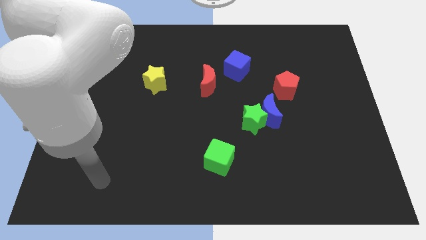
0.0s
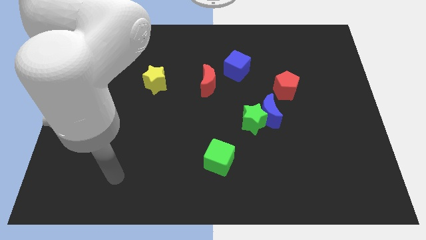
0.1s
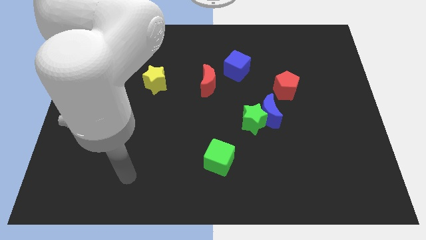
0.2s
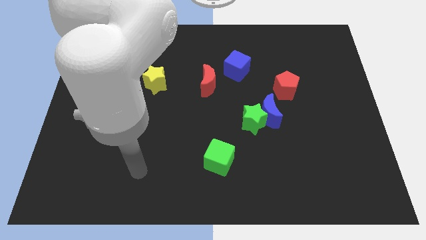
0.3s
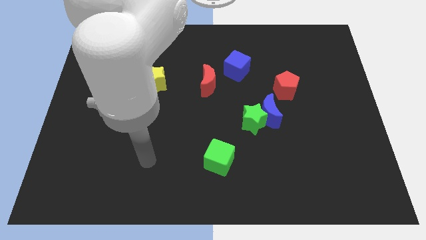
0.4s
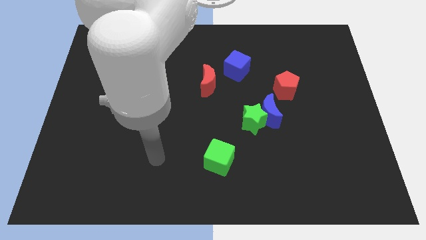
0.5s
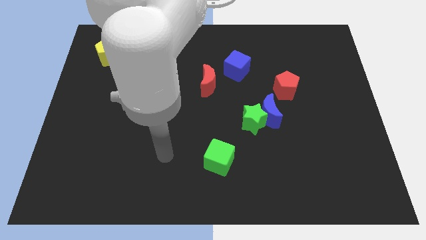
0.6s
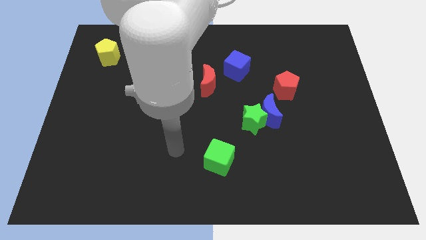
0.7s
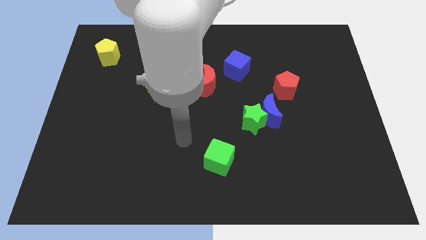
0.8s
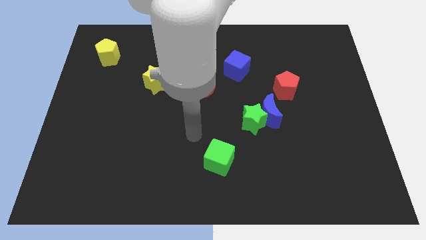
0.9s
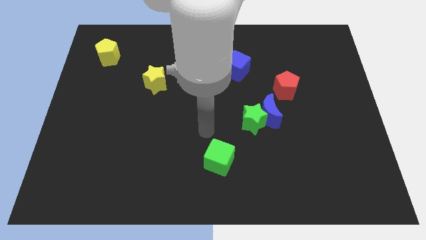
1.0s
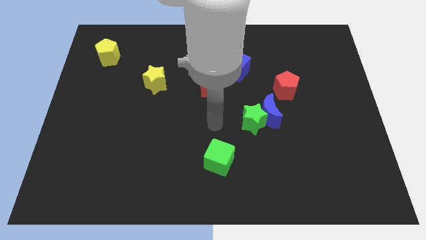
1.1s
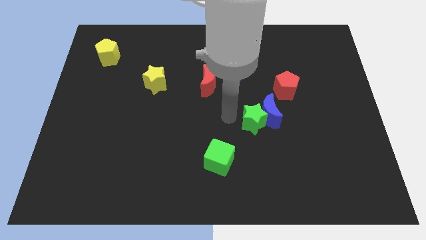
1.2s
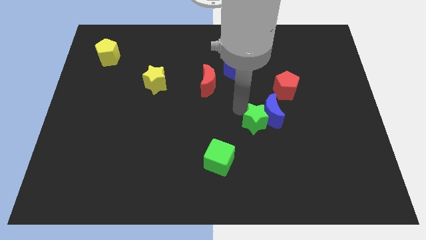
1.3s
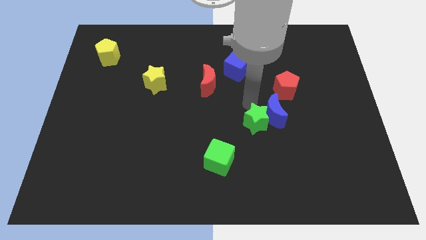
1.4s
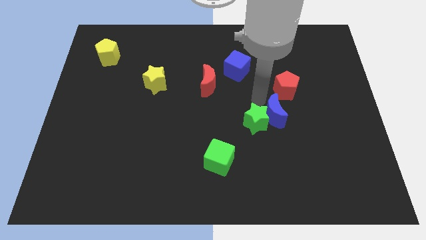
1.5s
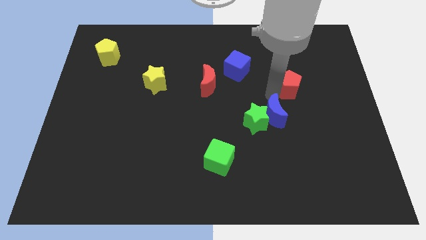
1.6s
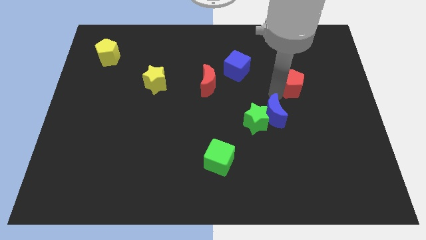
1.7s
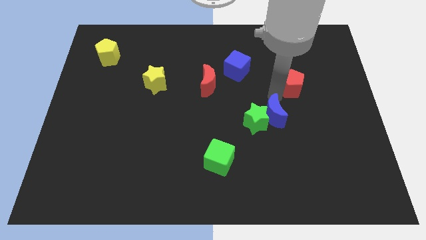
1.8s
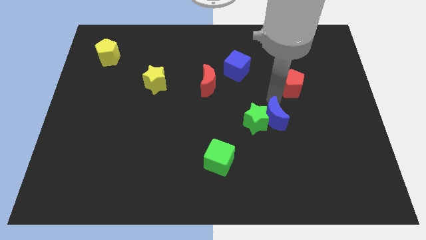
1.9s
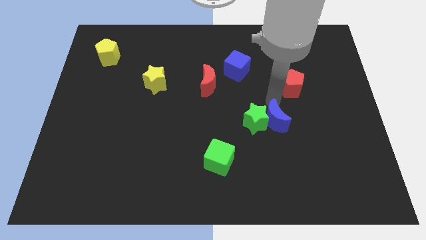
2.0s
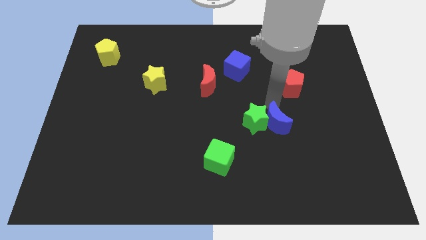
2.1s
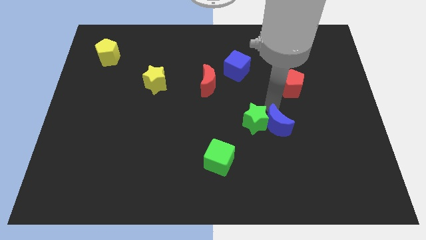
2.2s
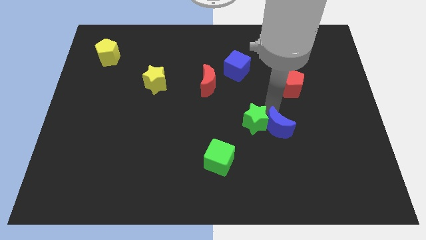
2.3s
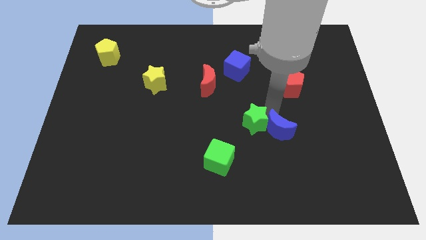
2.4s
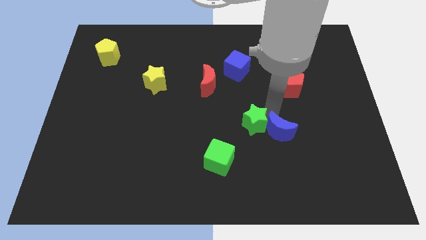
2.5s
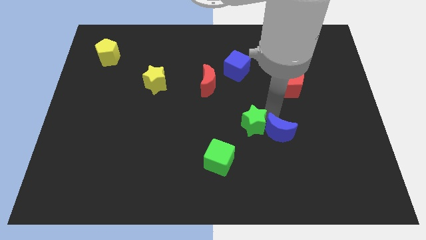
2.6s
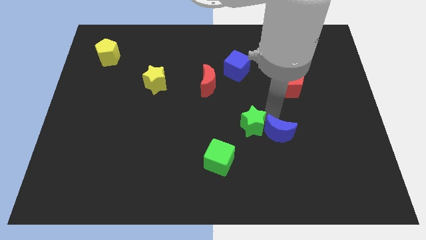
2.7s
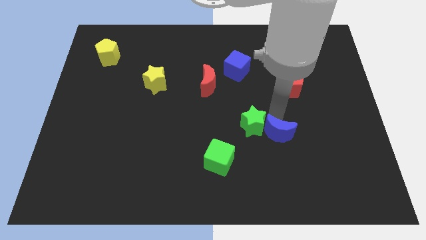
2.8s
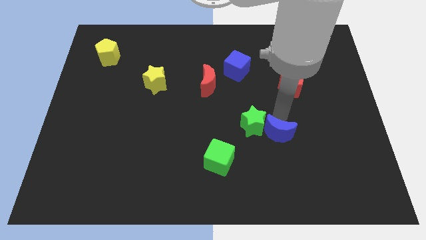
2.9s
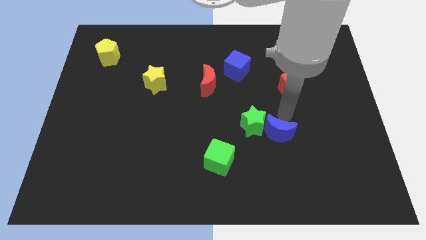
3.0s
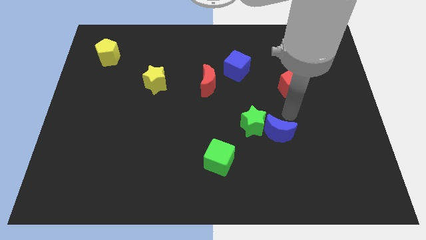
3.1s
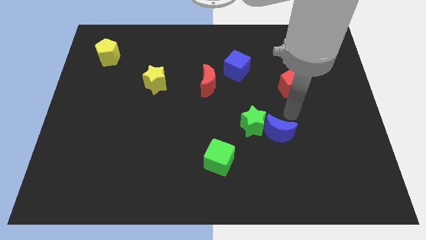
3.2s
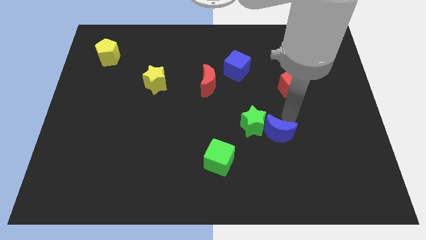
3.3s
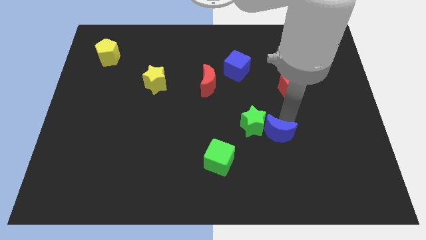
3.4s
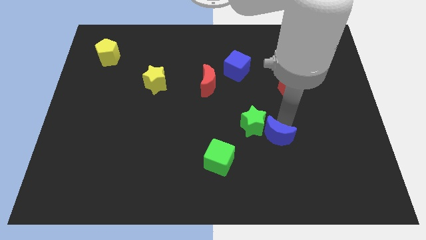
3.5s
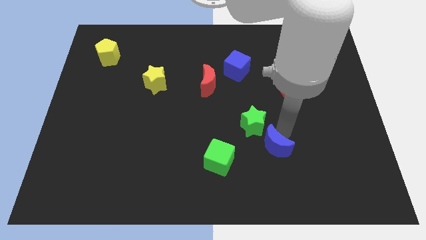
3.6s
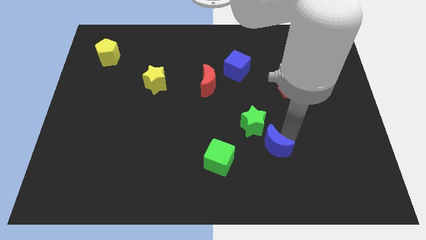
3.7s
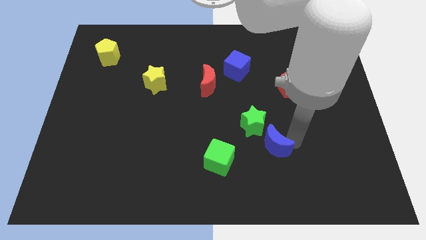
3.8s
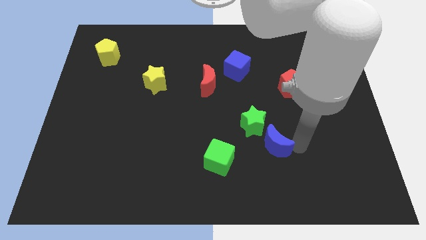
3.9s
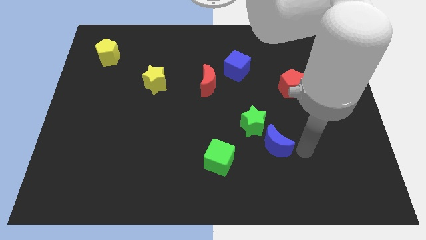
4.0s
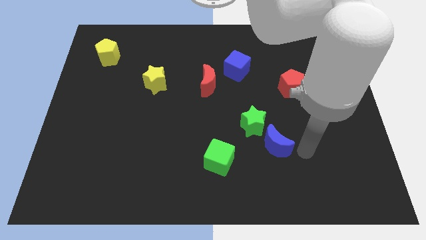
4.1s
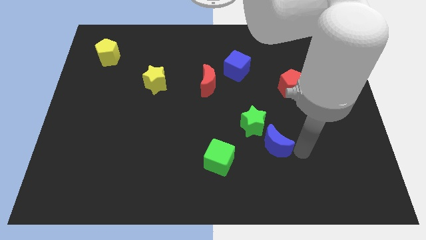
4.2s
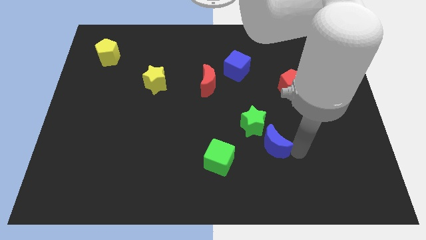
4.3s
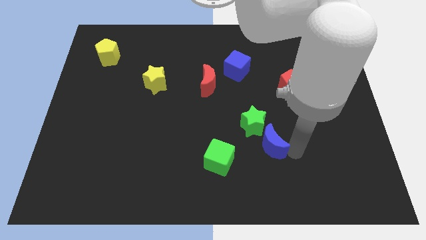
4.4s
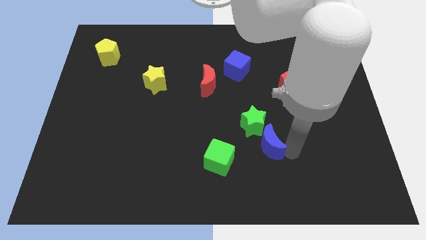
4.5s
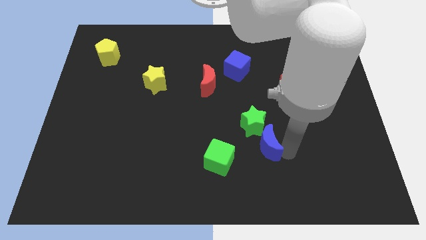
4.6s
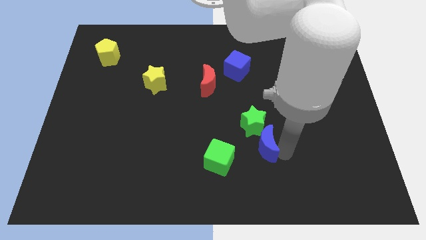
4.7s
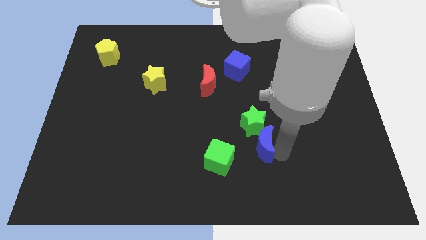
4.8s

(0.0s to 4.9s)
move the blue moon to the top right side of the green cube

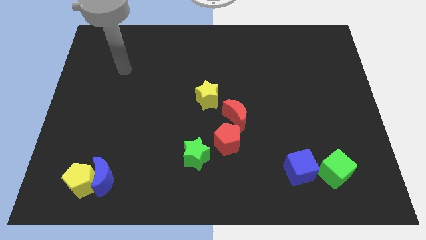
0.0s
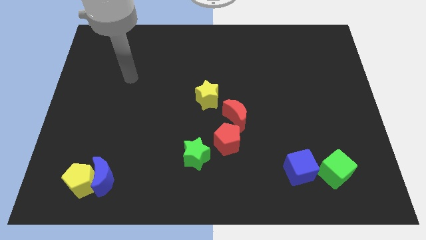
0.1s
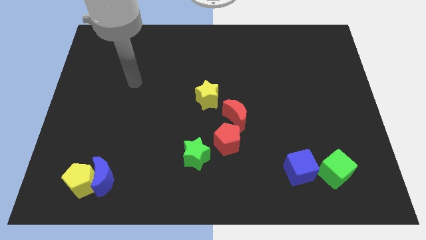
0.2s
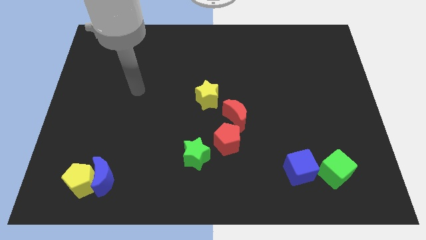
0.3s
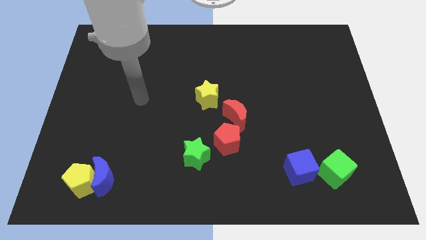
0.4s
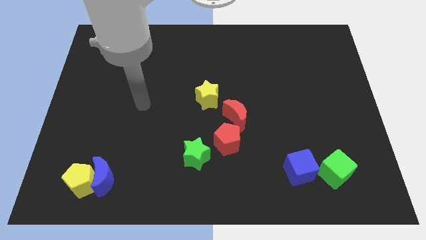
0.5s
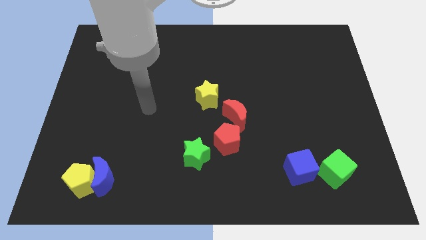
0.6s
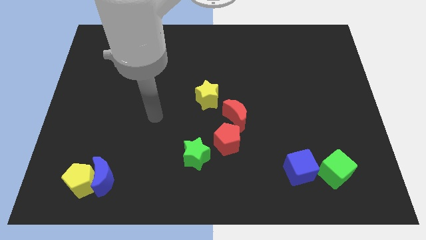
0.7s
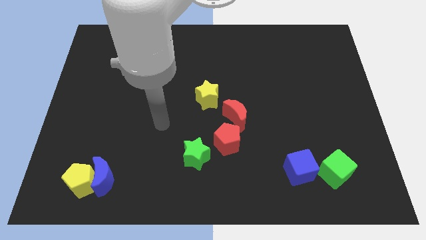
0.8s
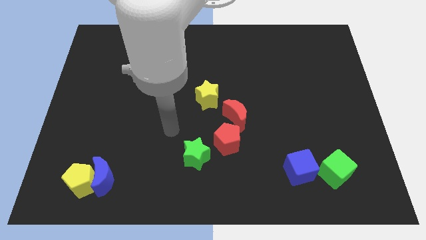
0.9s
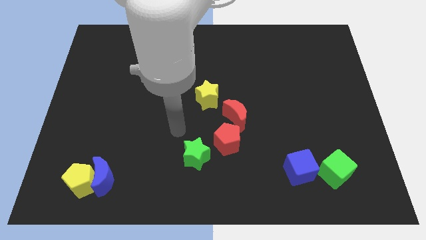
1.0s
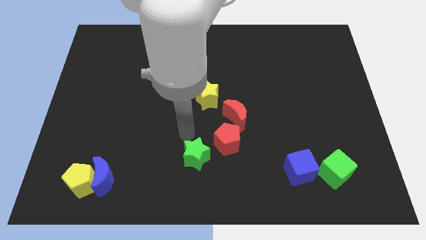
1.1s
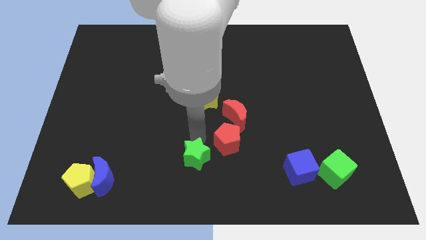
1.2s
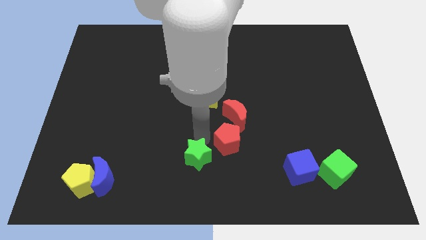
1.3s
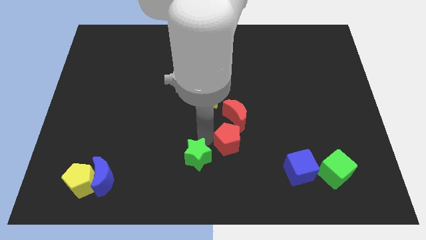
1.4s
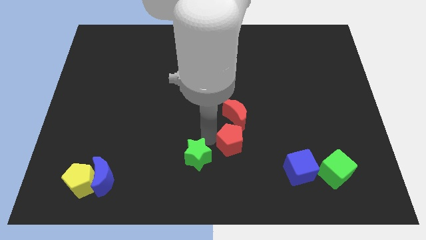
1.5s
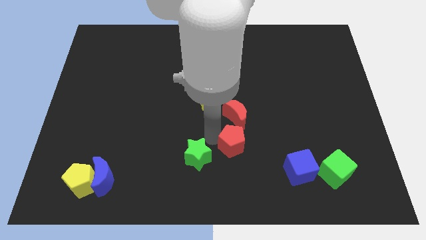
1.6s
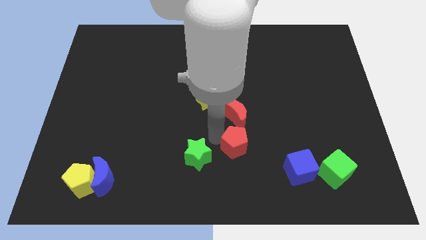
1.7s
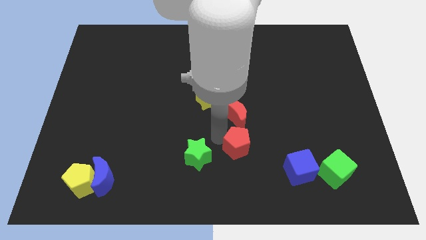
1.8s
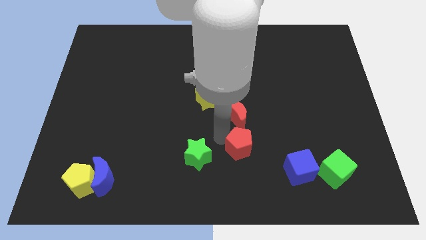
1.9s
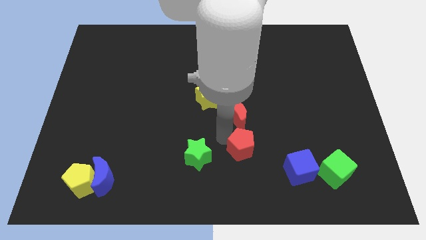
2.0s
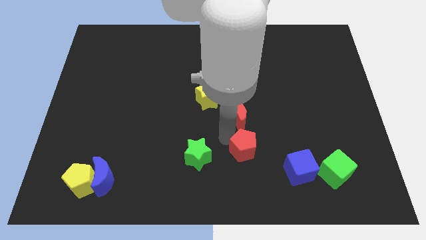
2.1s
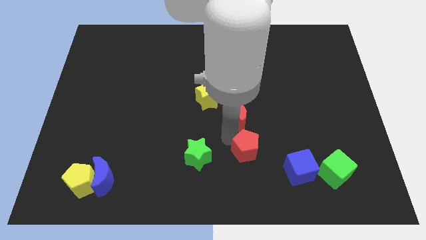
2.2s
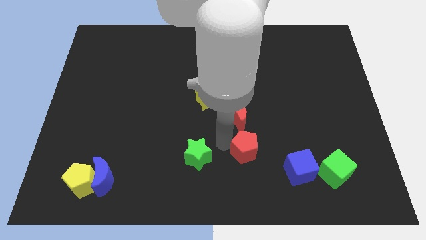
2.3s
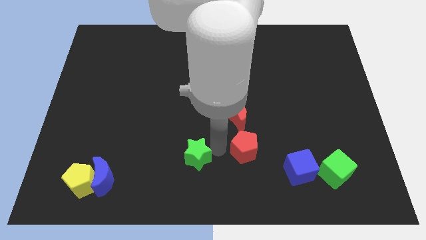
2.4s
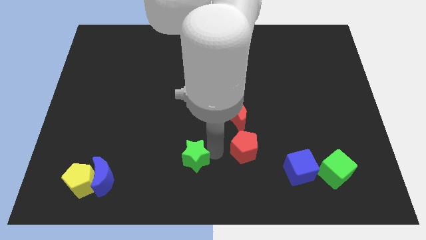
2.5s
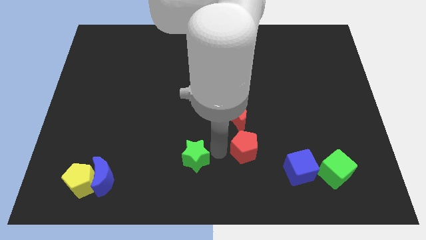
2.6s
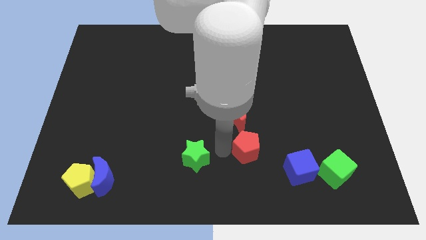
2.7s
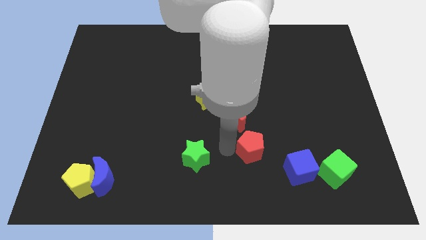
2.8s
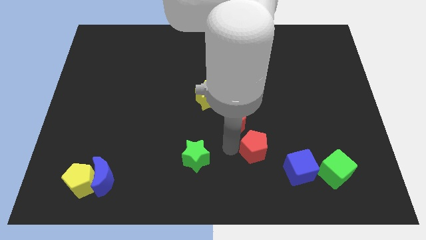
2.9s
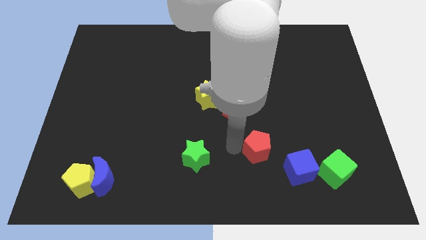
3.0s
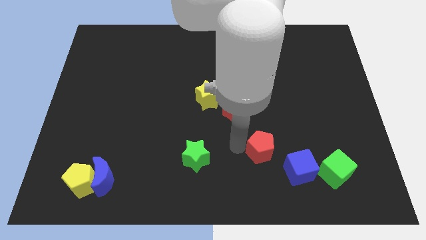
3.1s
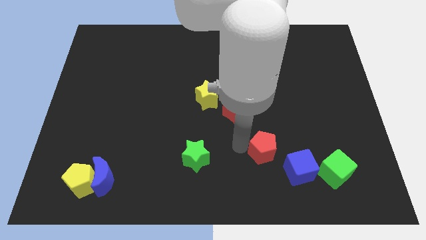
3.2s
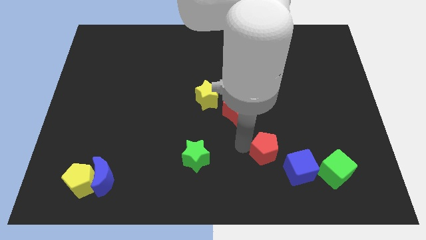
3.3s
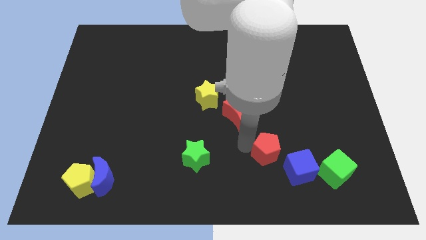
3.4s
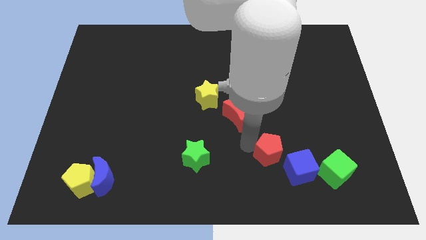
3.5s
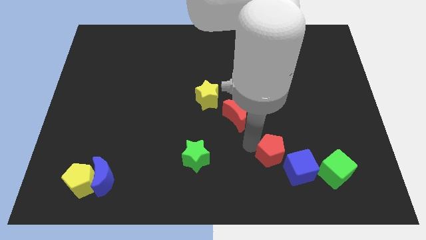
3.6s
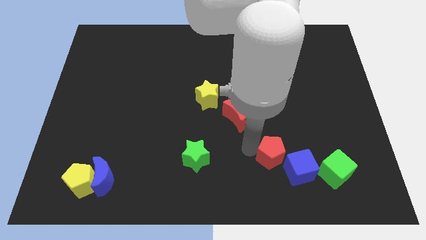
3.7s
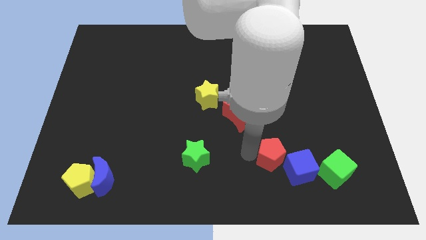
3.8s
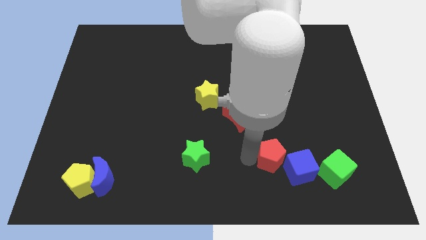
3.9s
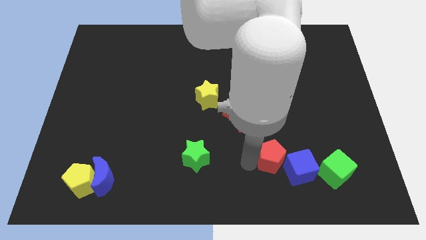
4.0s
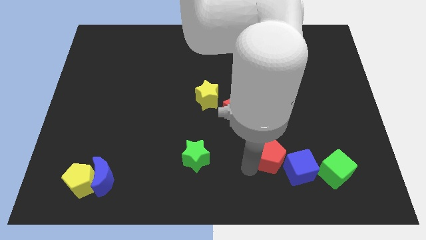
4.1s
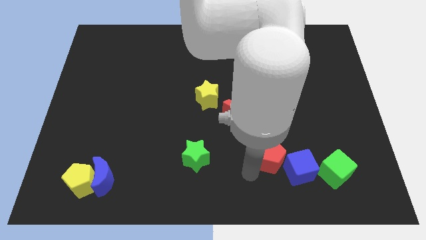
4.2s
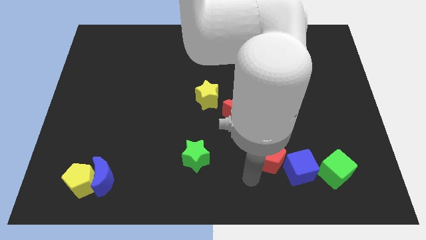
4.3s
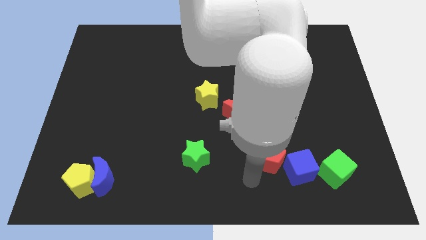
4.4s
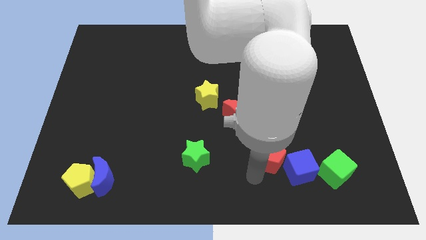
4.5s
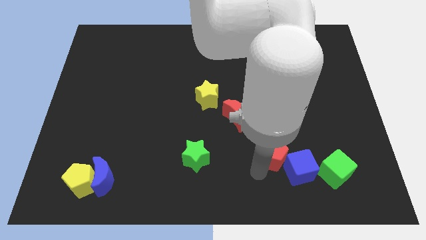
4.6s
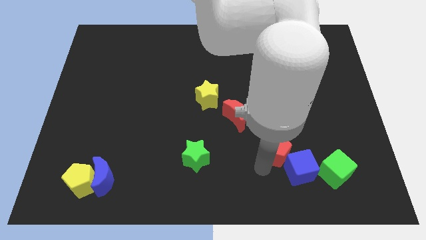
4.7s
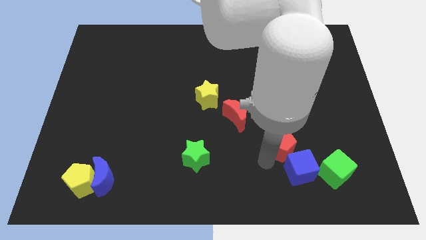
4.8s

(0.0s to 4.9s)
move the red pentagon to the top left of the green cube
